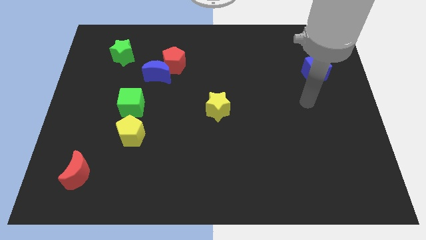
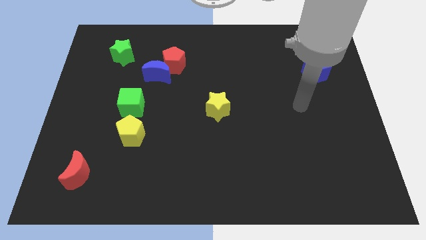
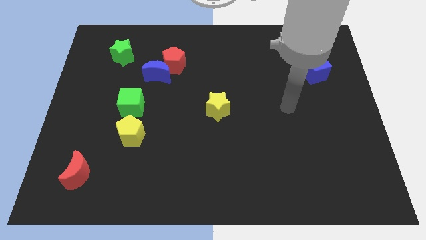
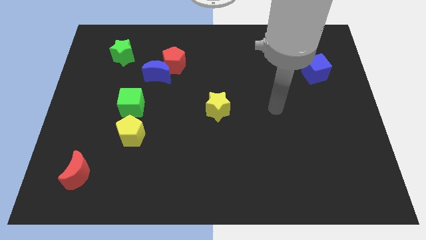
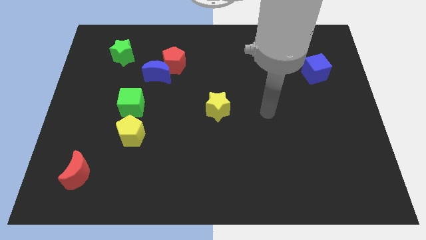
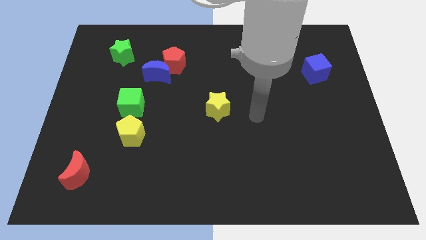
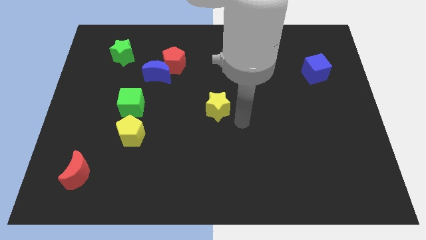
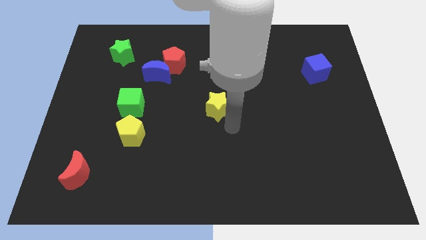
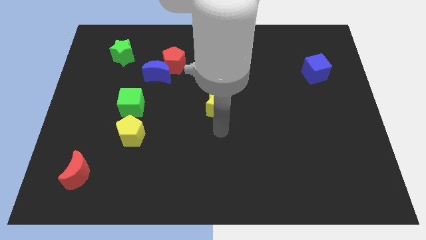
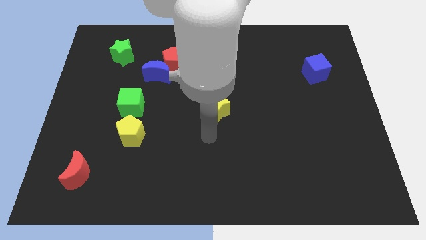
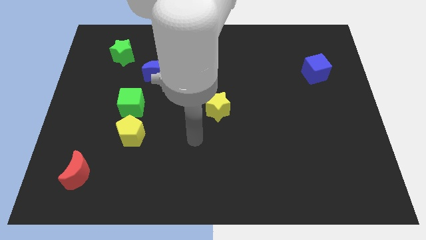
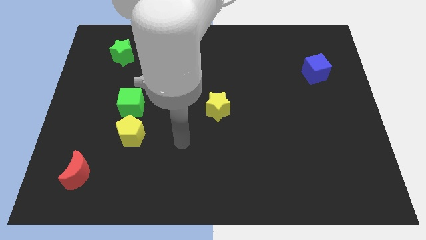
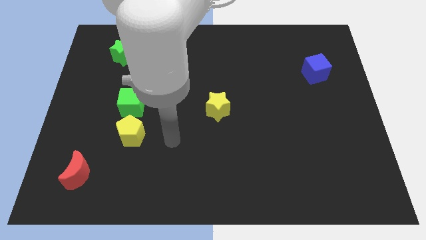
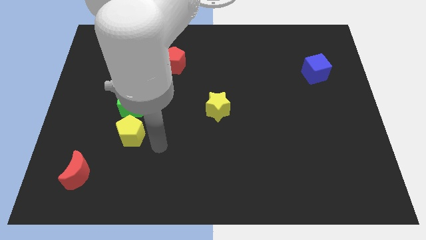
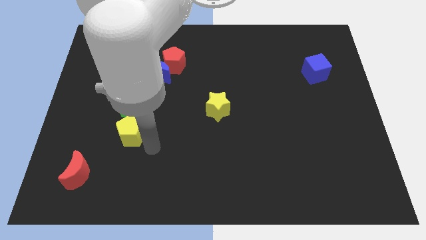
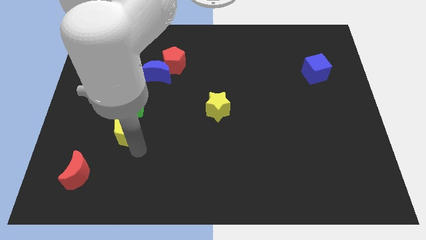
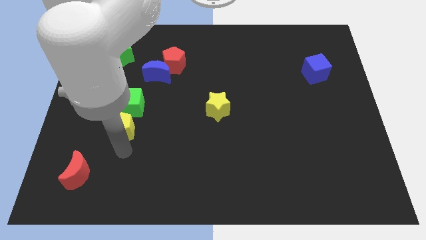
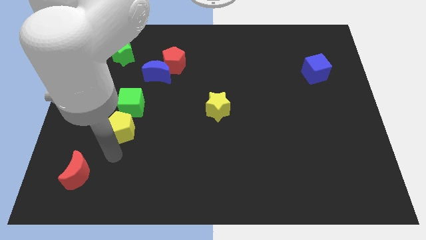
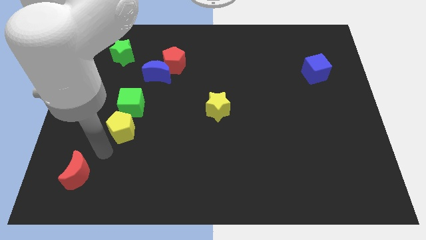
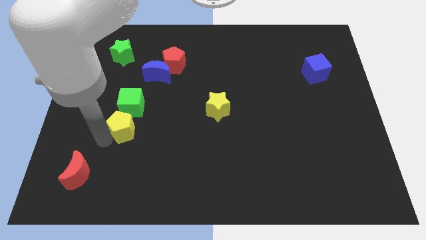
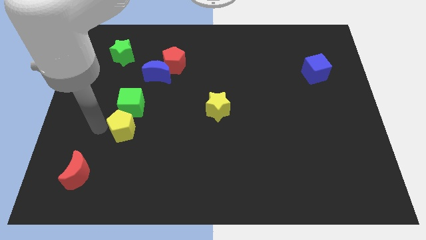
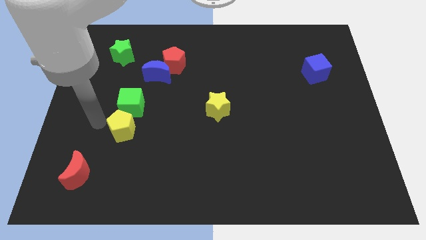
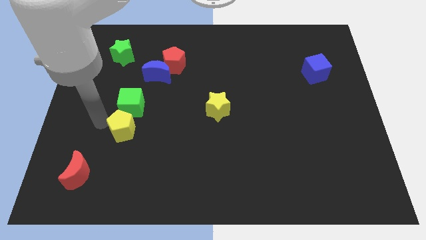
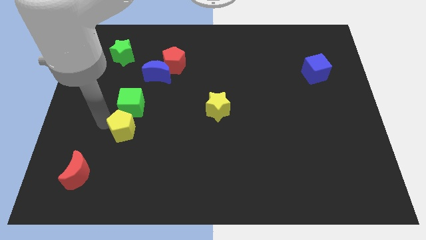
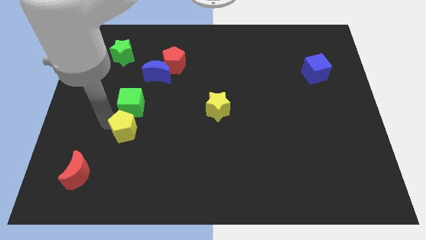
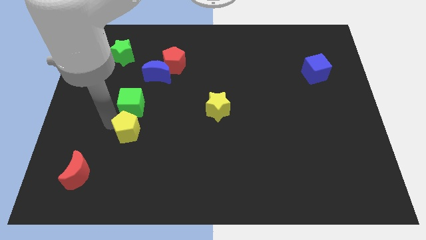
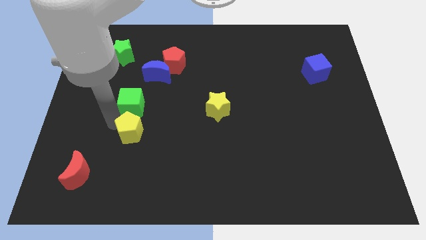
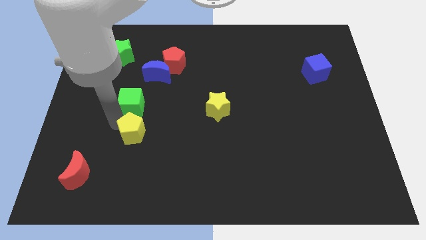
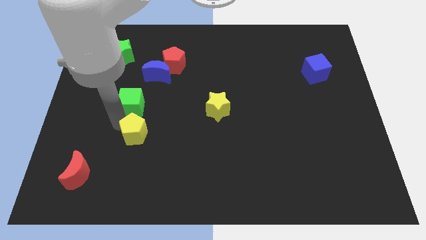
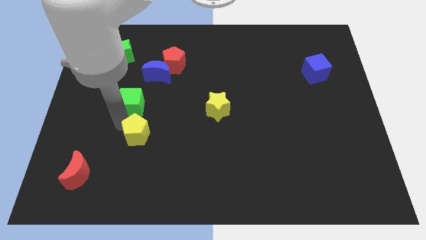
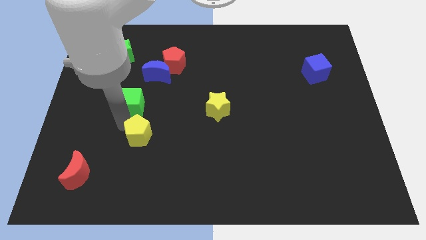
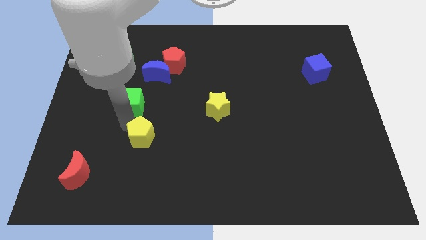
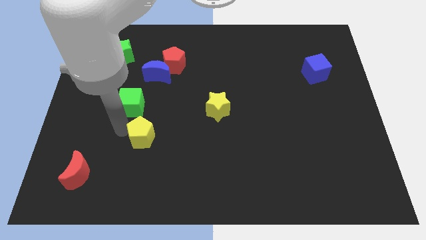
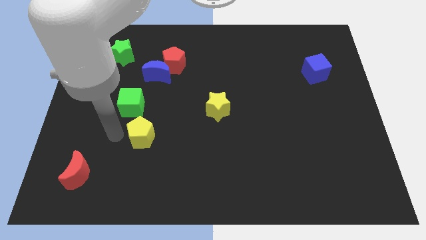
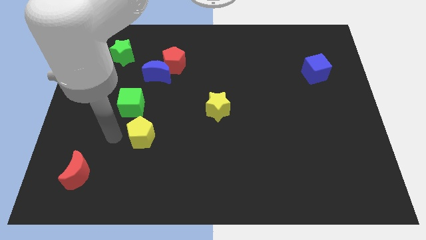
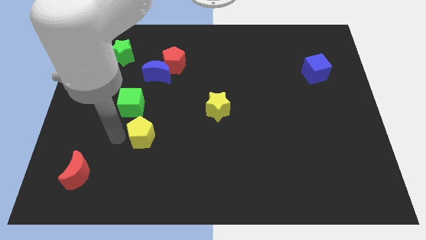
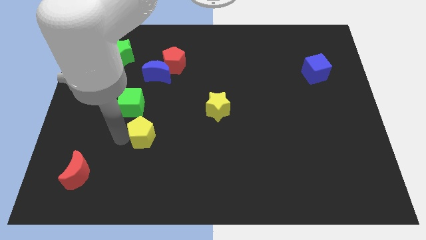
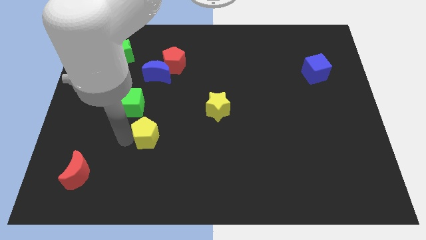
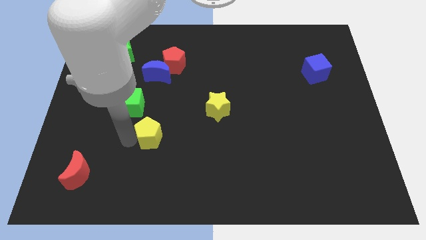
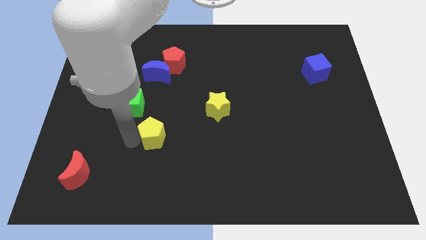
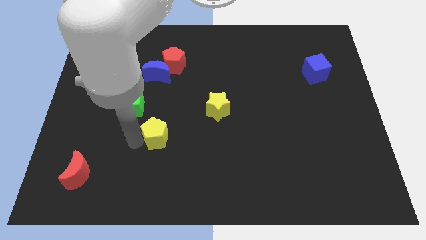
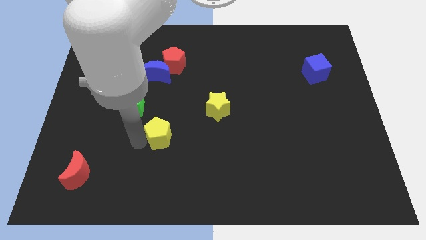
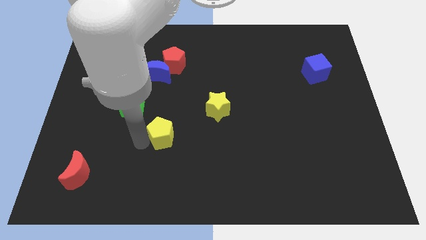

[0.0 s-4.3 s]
slightly slide the yellow pentagon right

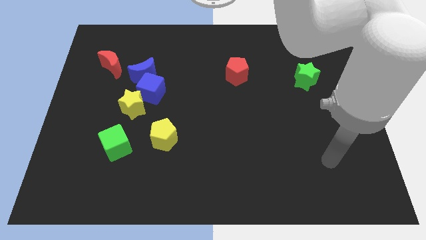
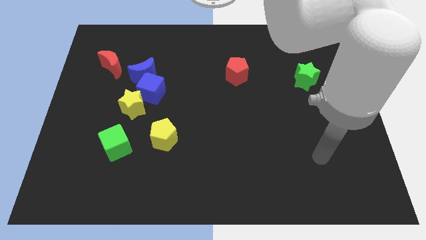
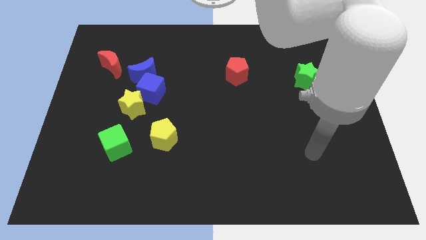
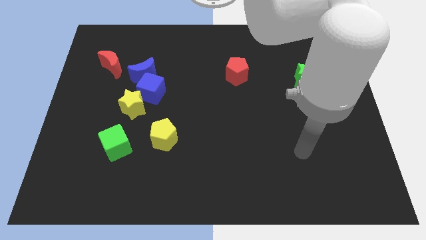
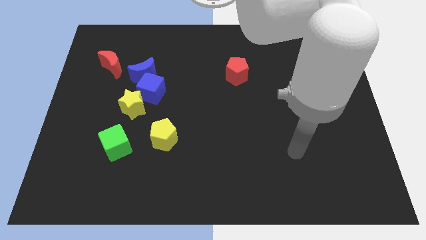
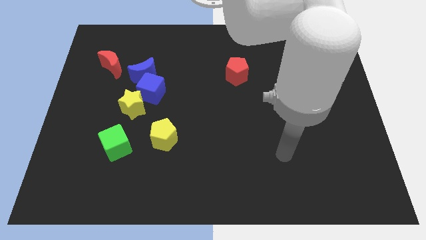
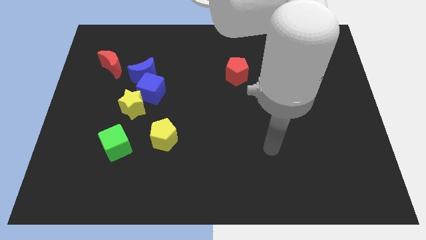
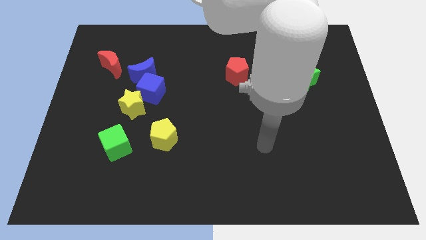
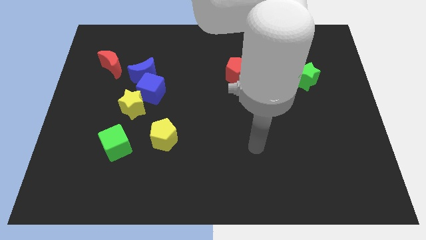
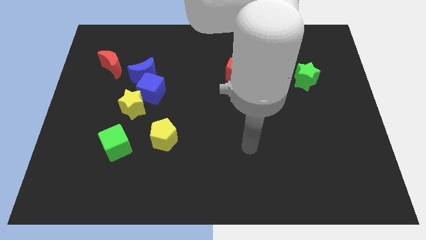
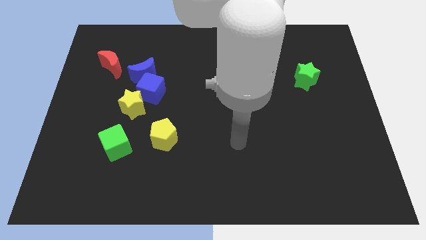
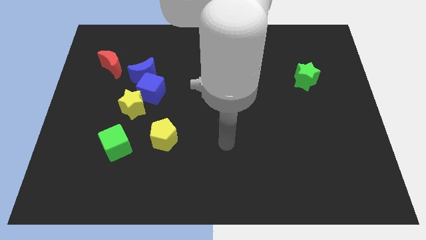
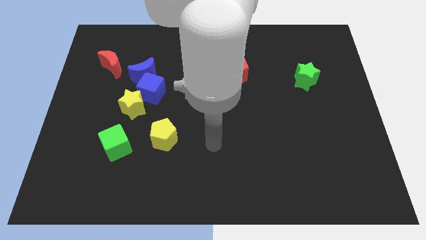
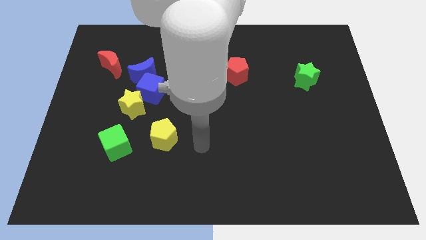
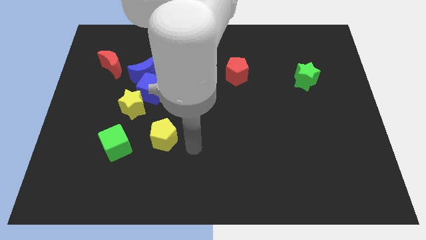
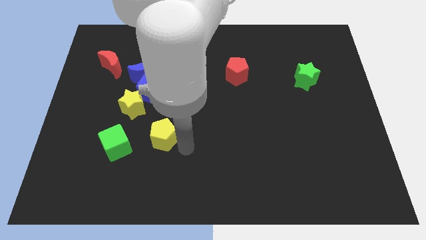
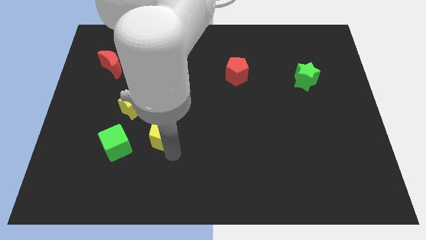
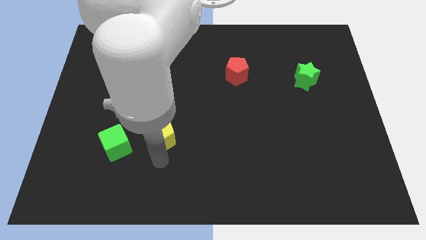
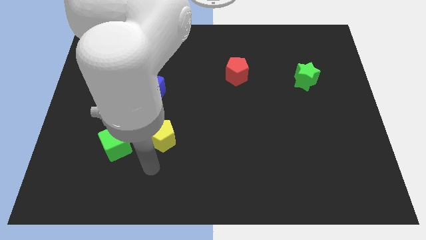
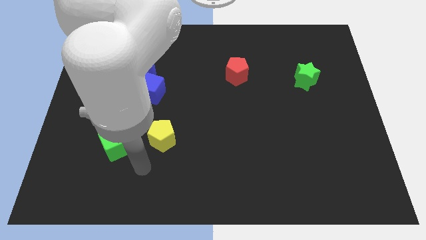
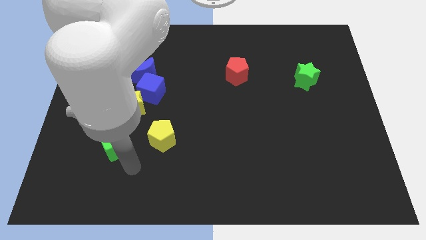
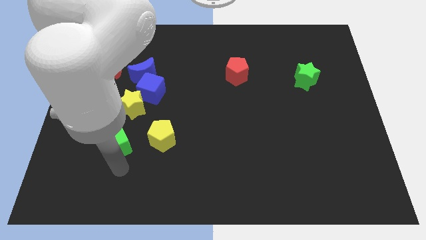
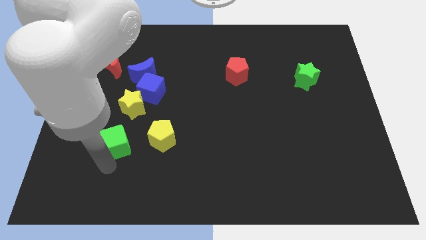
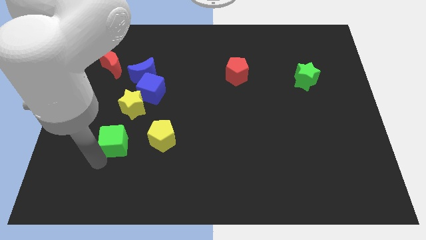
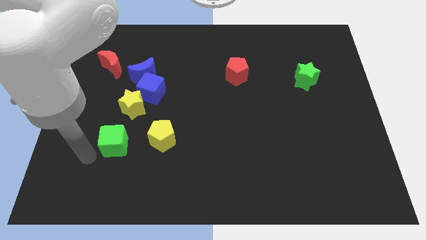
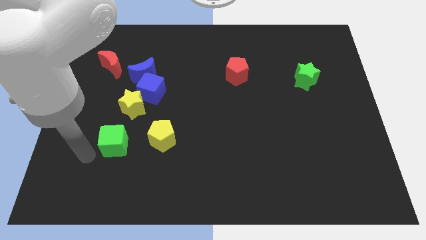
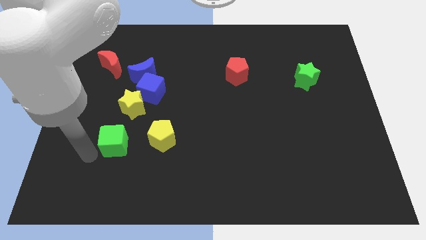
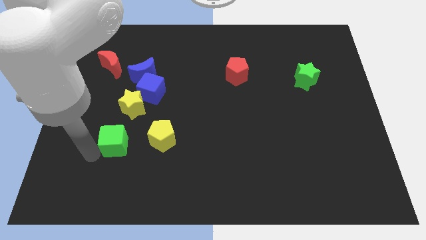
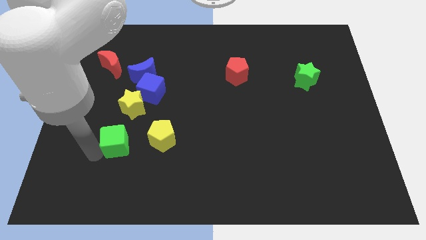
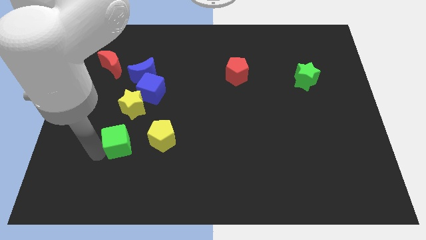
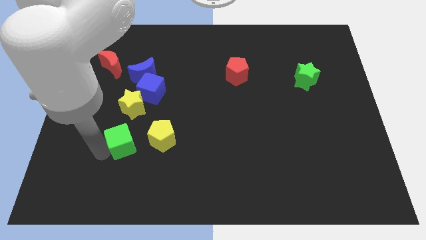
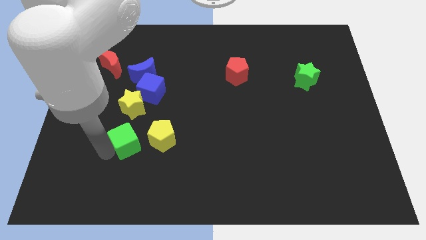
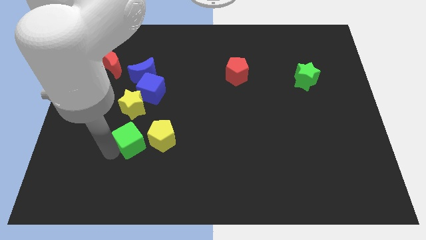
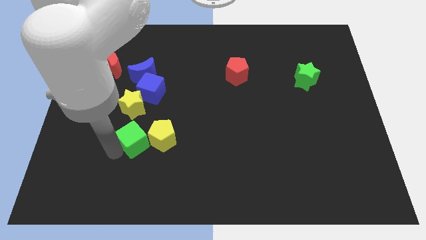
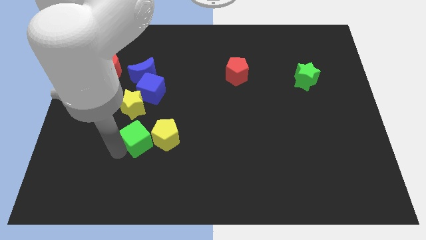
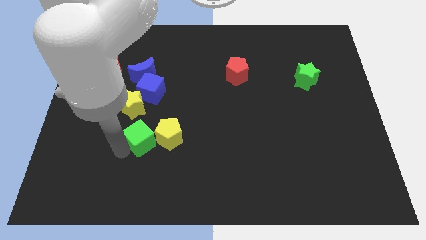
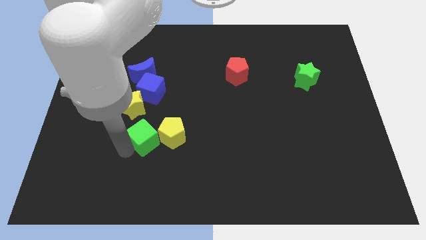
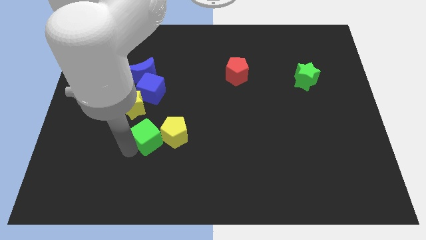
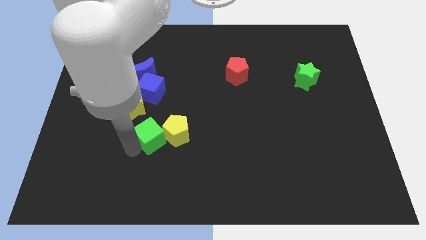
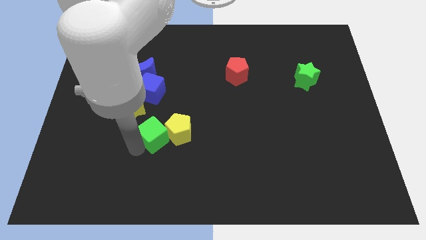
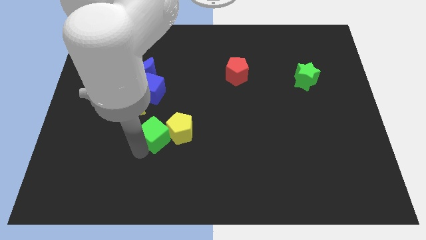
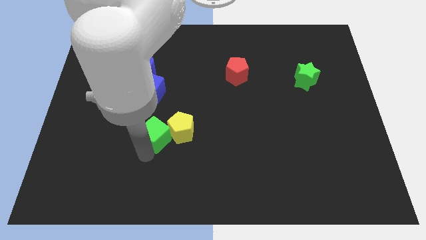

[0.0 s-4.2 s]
move the green cube upwards and right slightly
